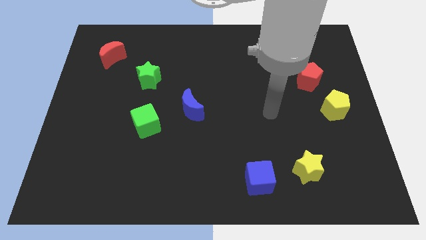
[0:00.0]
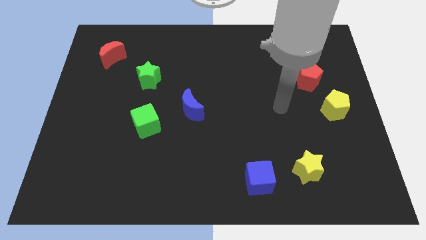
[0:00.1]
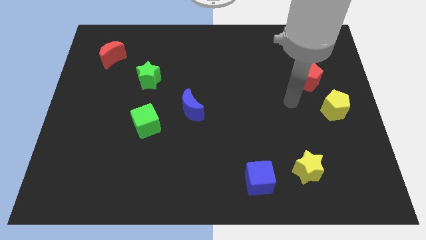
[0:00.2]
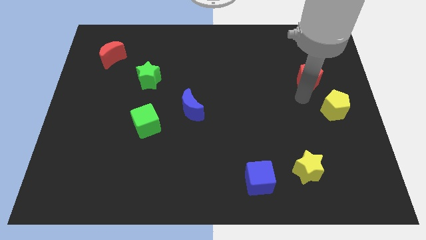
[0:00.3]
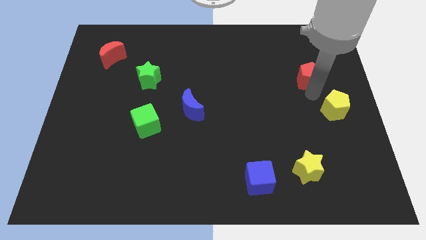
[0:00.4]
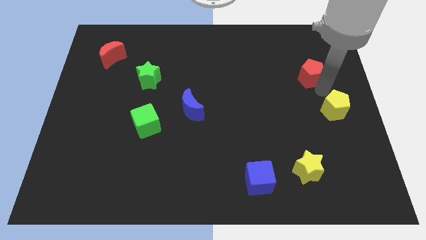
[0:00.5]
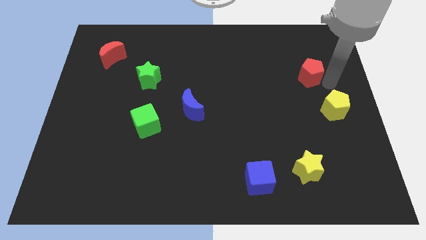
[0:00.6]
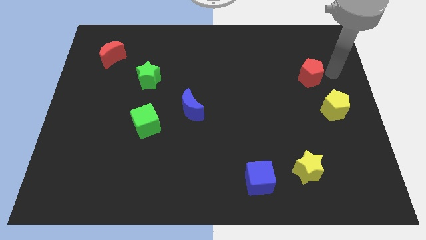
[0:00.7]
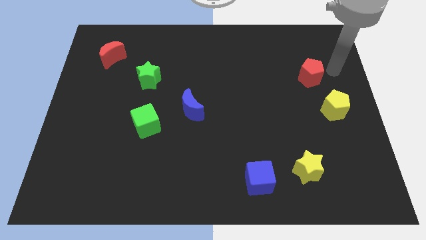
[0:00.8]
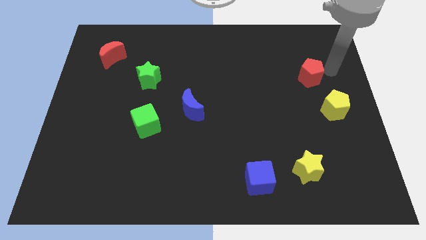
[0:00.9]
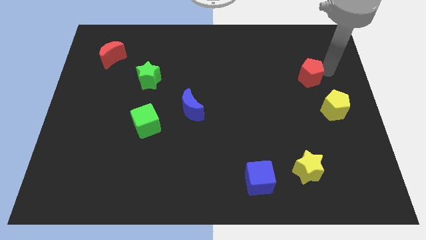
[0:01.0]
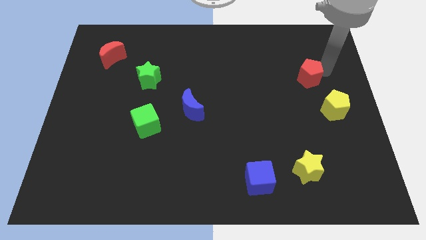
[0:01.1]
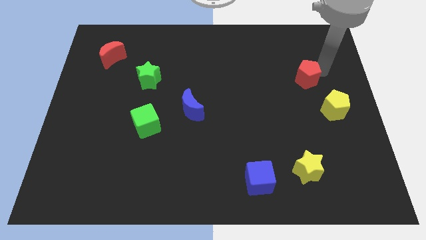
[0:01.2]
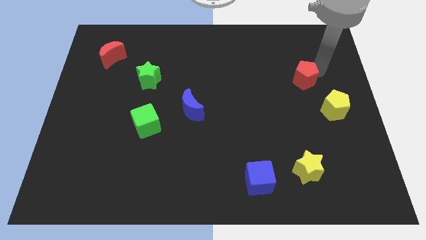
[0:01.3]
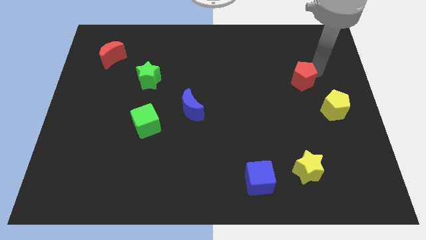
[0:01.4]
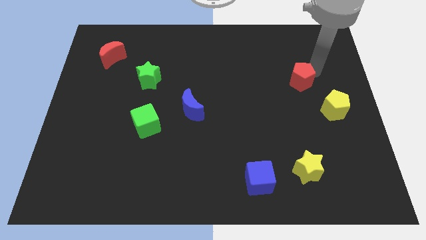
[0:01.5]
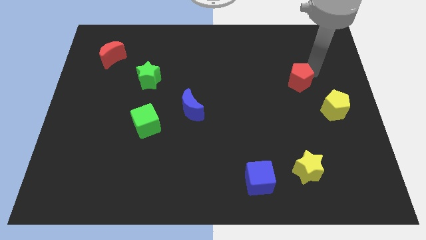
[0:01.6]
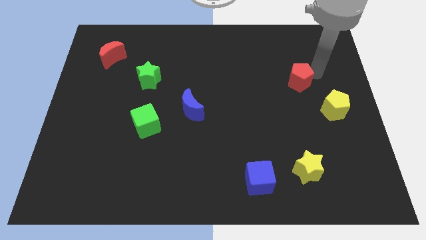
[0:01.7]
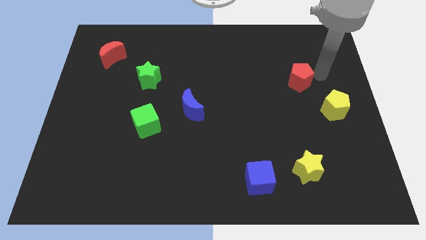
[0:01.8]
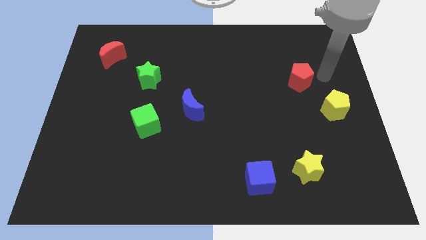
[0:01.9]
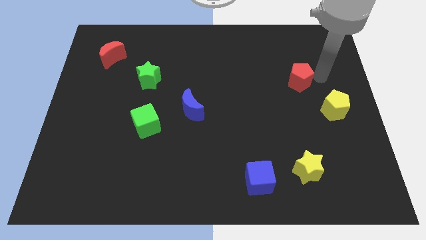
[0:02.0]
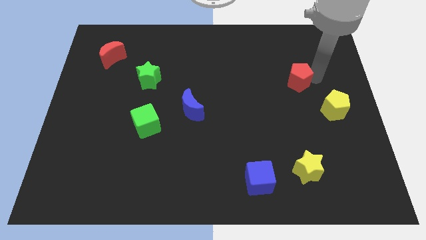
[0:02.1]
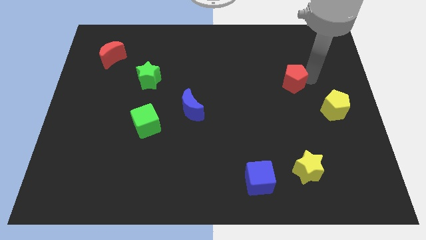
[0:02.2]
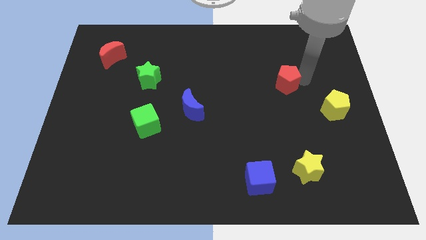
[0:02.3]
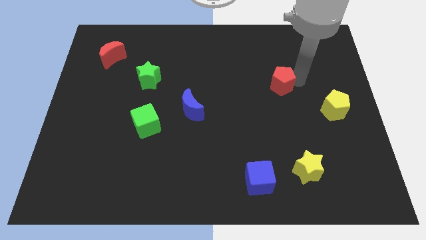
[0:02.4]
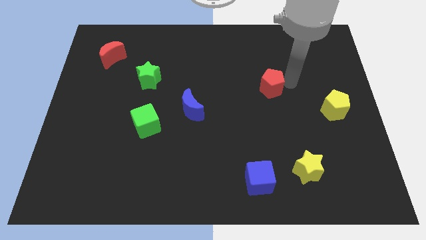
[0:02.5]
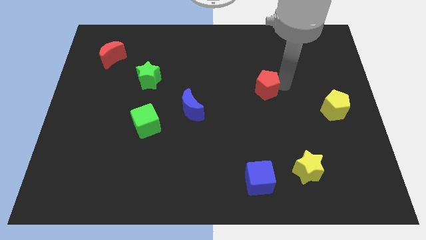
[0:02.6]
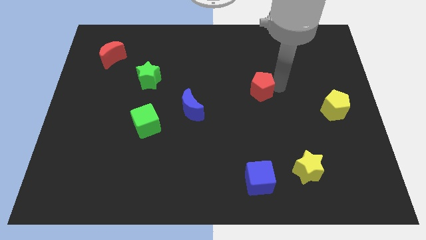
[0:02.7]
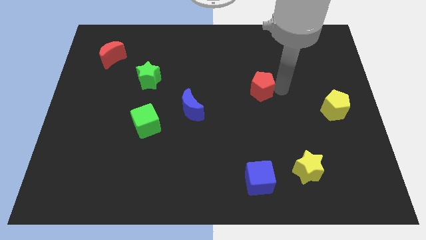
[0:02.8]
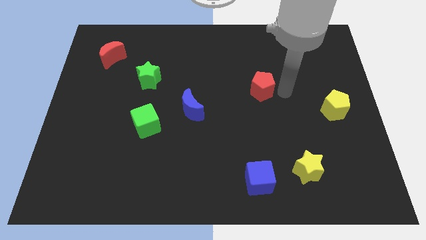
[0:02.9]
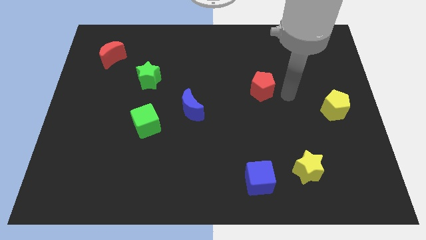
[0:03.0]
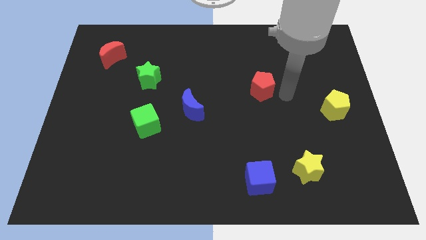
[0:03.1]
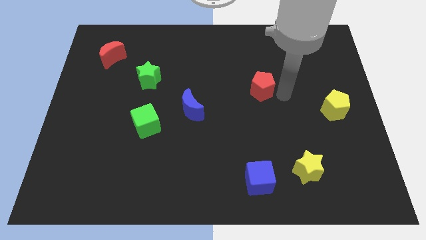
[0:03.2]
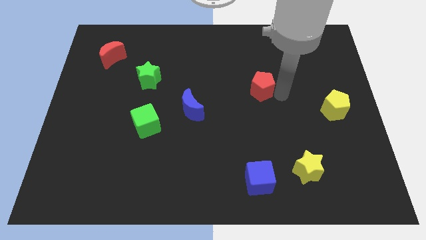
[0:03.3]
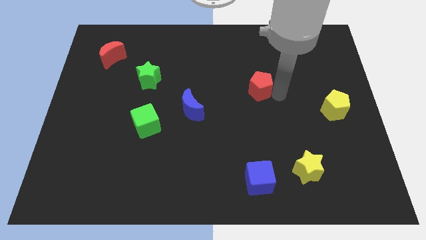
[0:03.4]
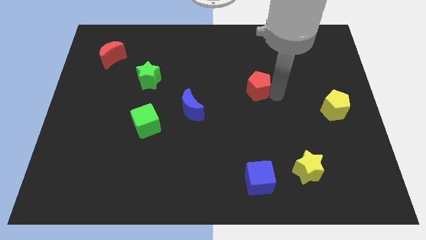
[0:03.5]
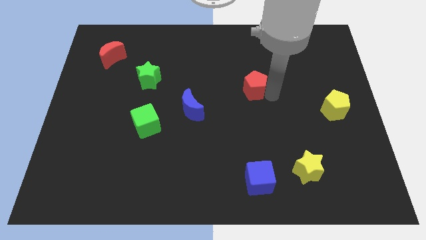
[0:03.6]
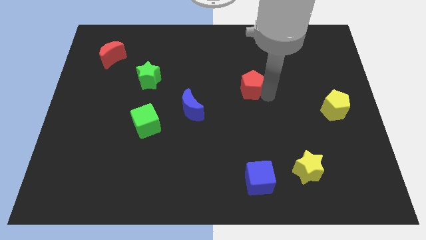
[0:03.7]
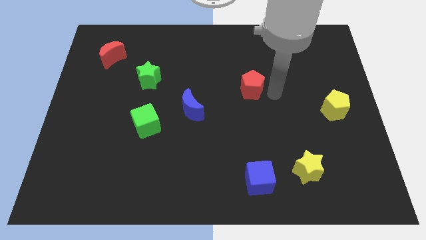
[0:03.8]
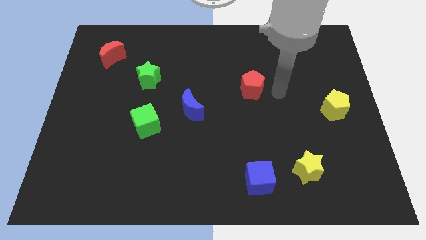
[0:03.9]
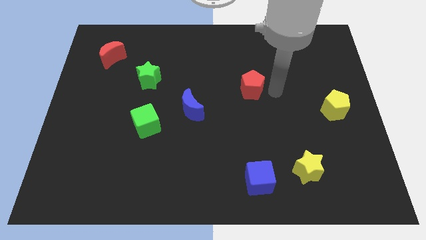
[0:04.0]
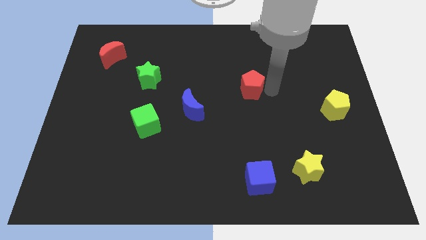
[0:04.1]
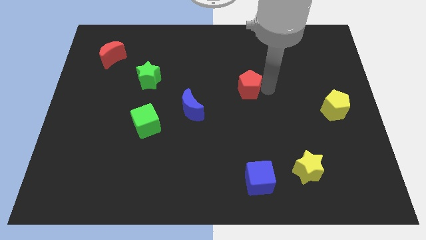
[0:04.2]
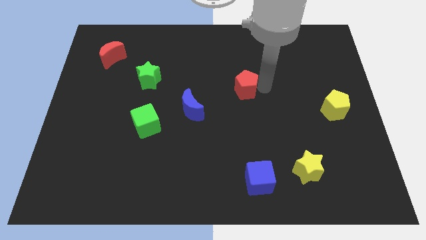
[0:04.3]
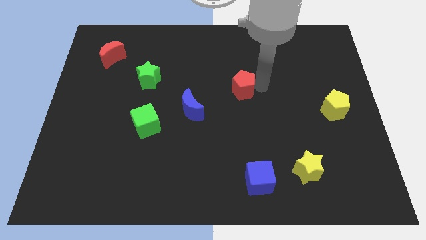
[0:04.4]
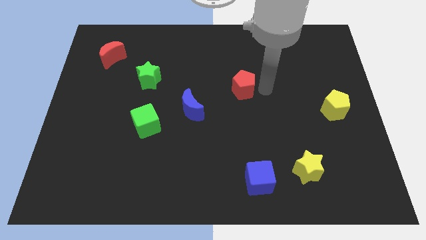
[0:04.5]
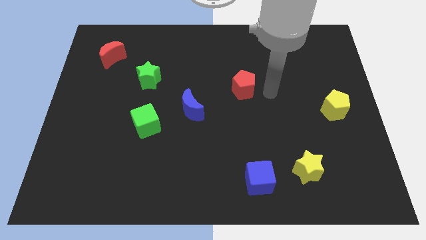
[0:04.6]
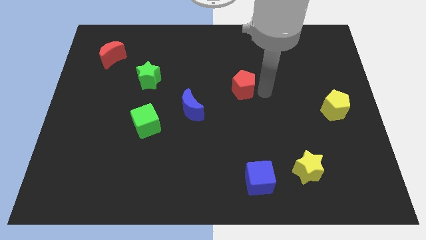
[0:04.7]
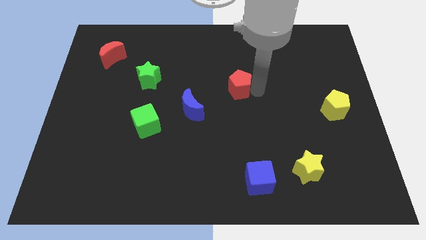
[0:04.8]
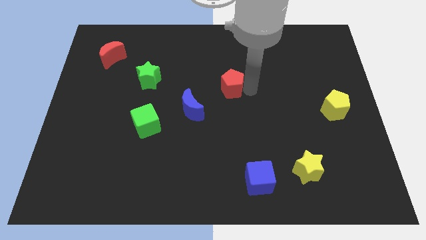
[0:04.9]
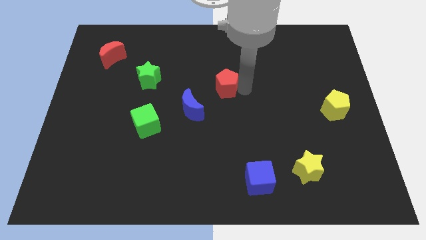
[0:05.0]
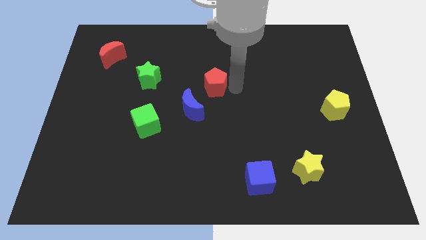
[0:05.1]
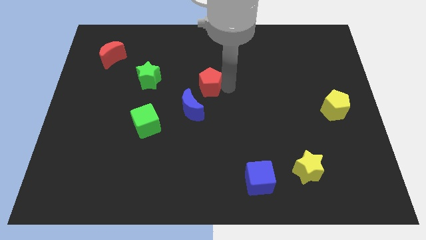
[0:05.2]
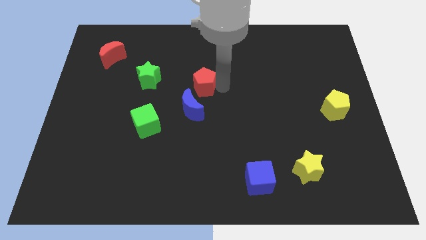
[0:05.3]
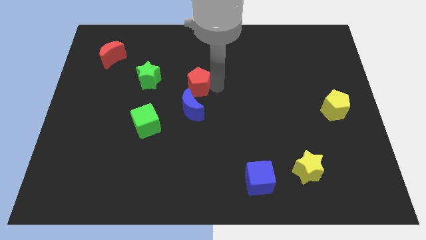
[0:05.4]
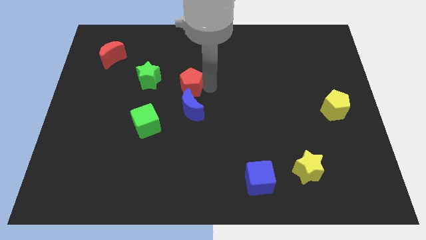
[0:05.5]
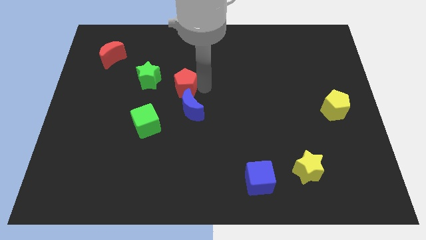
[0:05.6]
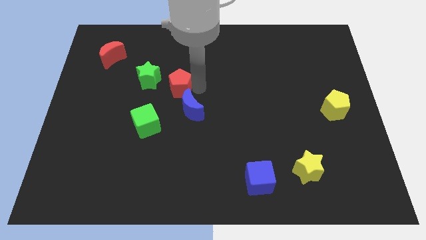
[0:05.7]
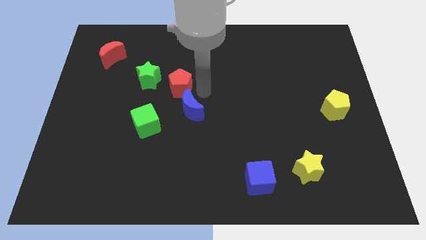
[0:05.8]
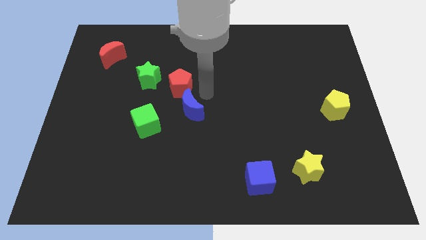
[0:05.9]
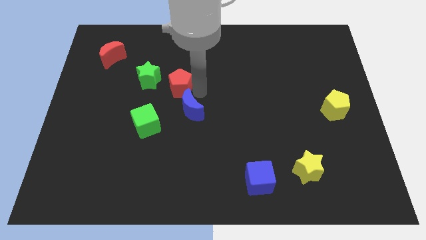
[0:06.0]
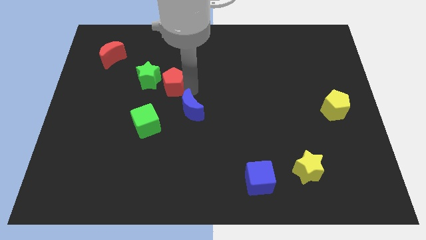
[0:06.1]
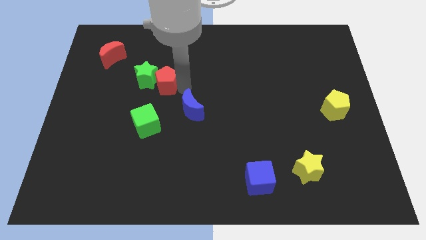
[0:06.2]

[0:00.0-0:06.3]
put the red pentagon close to the green star

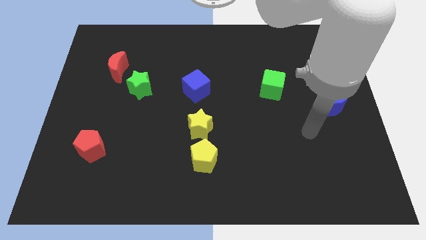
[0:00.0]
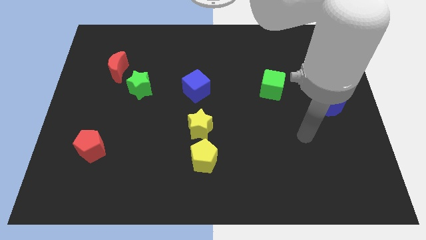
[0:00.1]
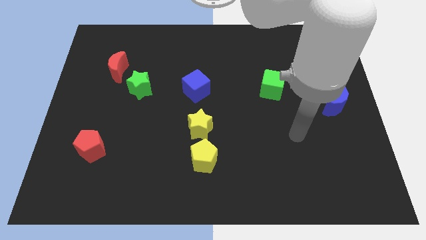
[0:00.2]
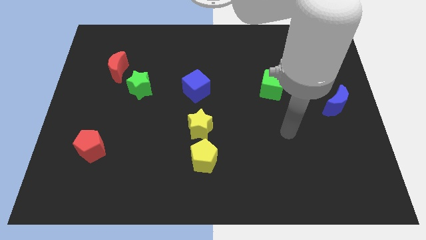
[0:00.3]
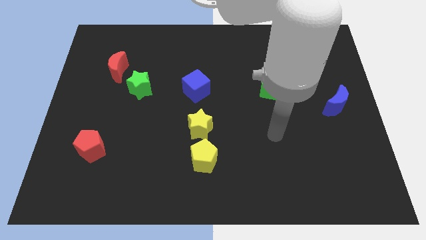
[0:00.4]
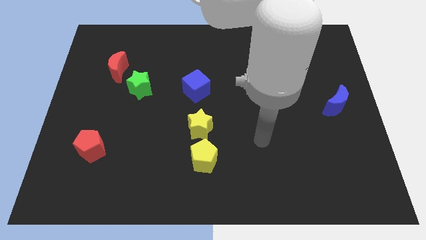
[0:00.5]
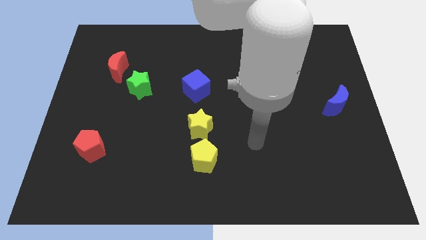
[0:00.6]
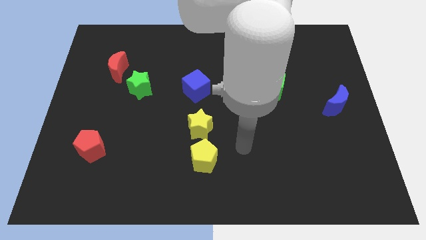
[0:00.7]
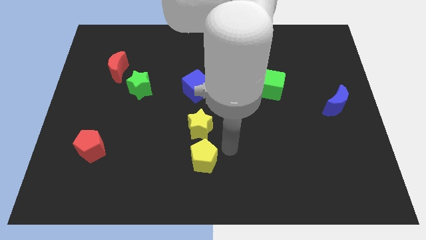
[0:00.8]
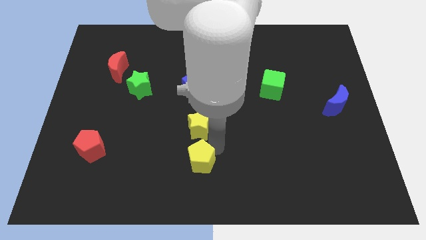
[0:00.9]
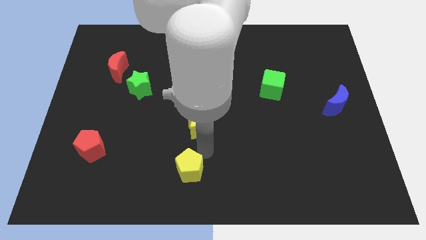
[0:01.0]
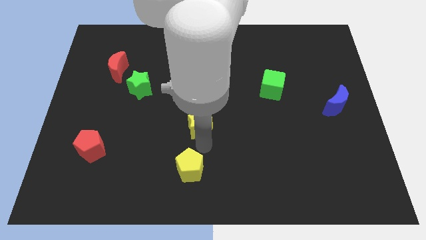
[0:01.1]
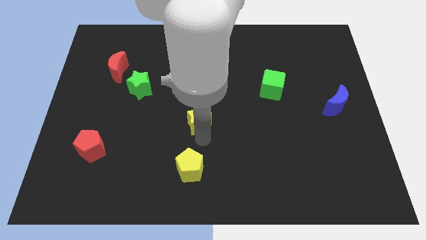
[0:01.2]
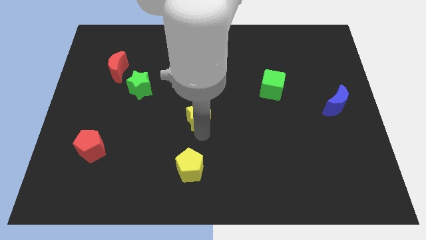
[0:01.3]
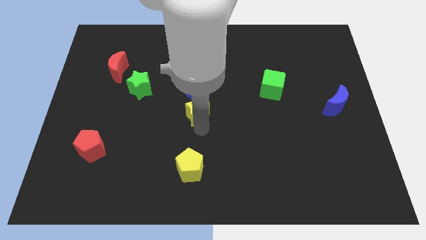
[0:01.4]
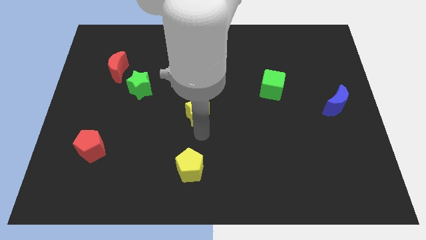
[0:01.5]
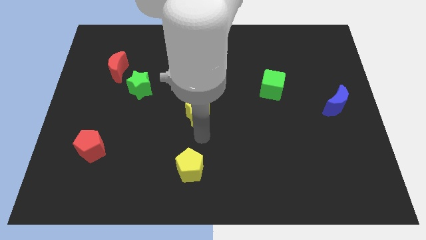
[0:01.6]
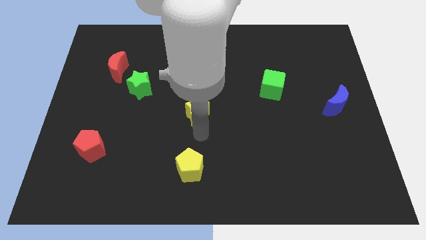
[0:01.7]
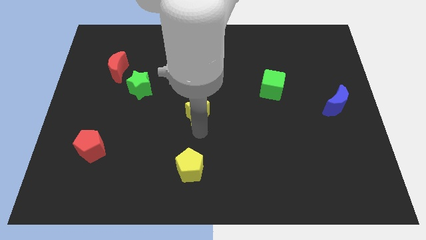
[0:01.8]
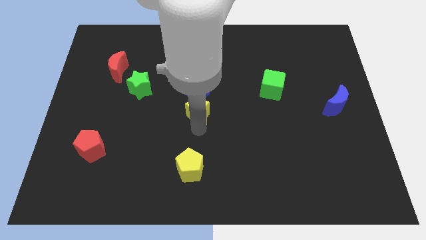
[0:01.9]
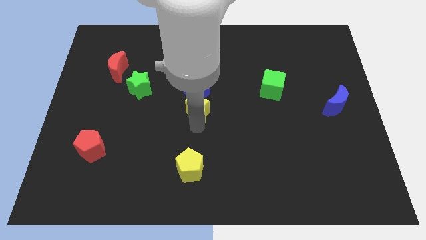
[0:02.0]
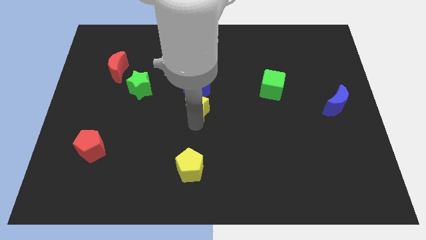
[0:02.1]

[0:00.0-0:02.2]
slide the yellow star towards the blue cube
